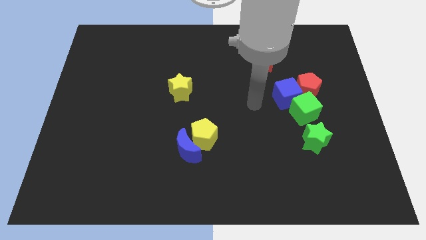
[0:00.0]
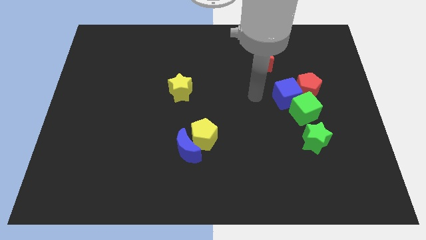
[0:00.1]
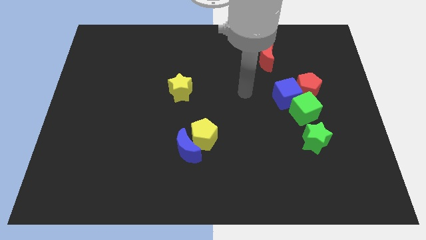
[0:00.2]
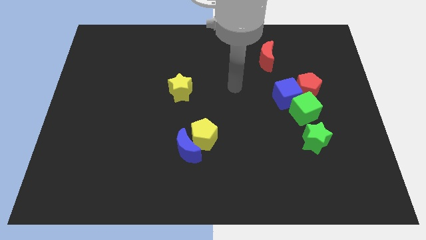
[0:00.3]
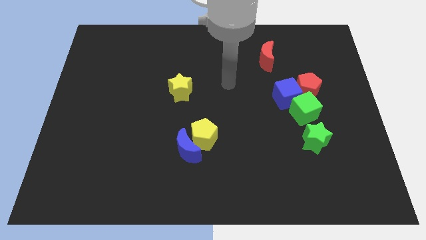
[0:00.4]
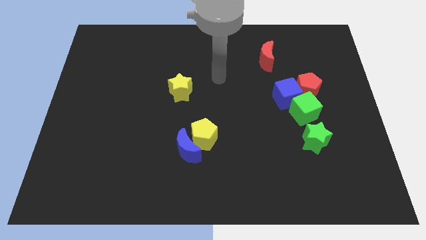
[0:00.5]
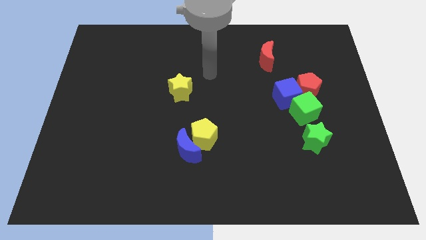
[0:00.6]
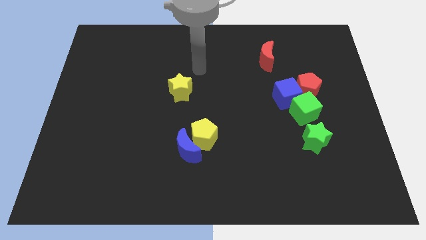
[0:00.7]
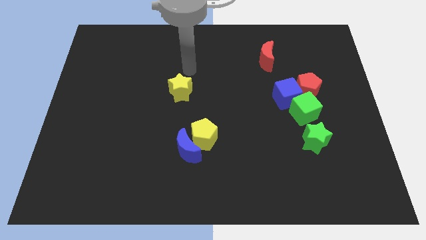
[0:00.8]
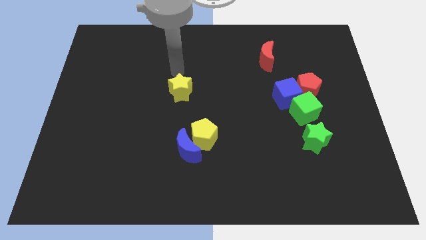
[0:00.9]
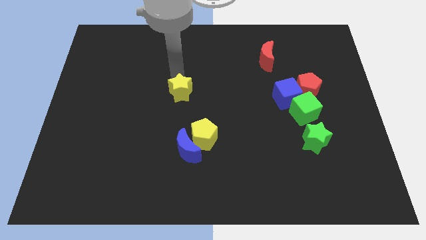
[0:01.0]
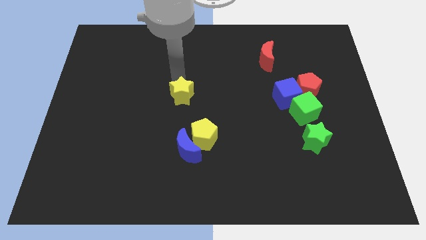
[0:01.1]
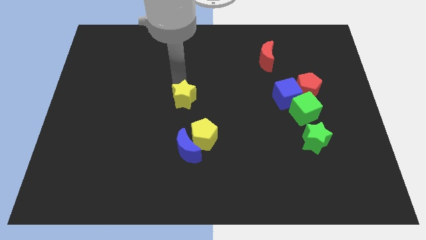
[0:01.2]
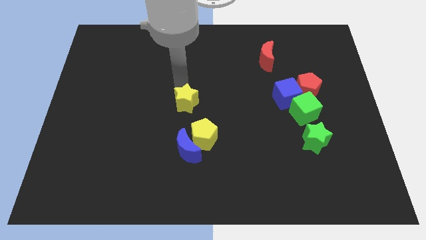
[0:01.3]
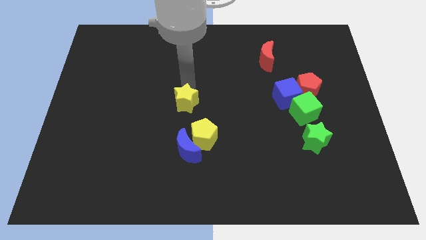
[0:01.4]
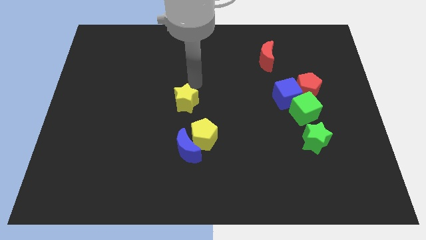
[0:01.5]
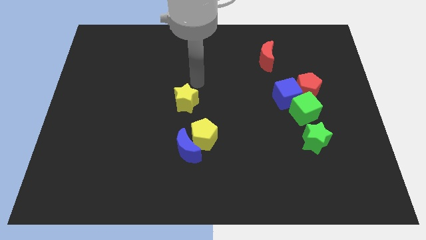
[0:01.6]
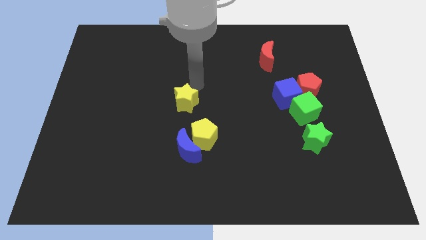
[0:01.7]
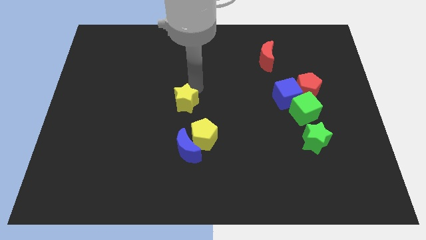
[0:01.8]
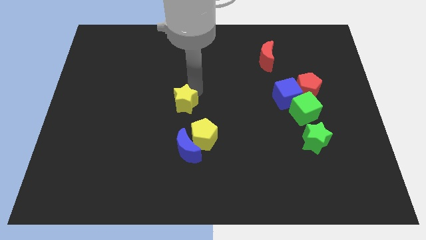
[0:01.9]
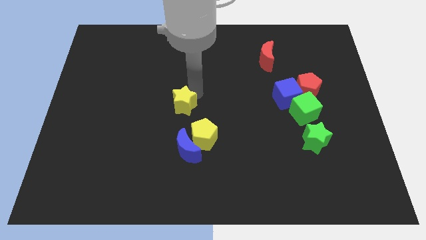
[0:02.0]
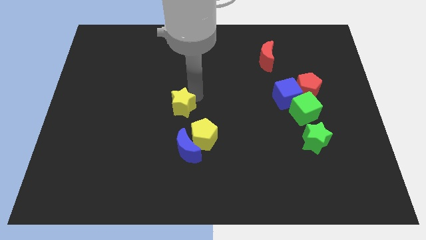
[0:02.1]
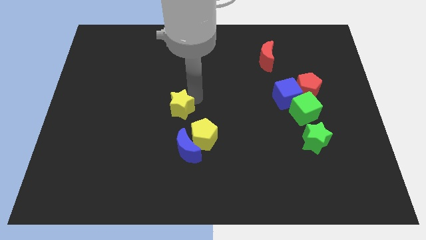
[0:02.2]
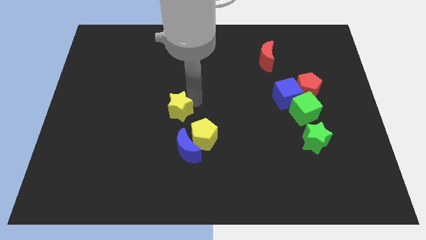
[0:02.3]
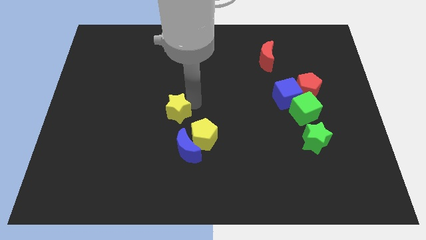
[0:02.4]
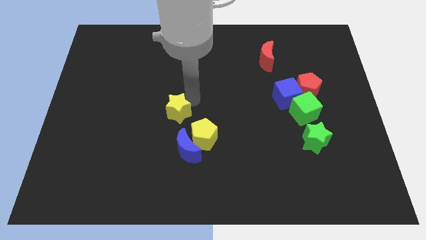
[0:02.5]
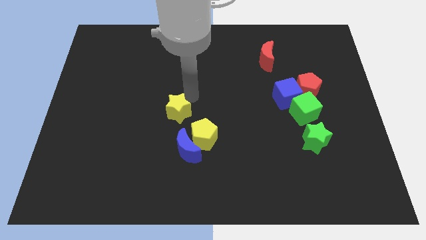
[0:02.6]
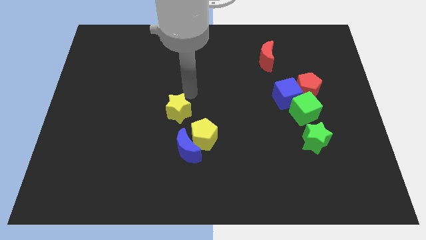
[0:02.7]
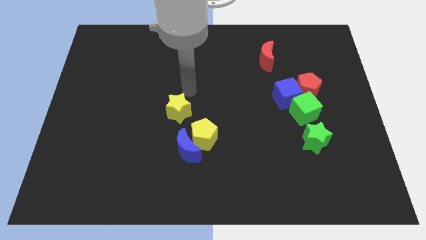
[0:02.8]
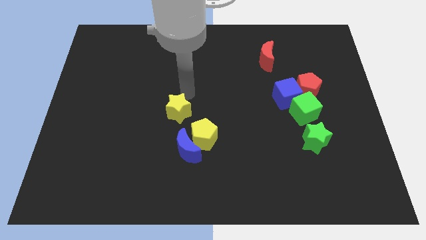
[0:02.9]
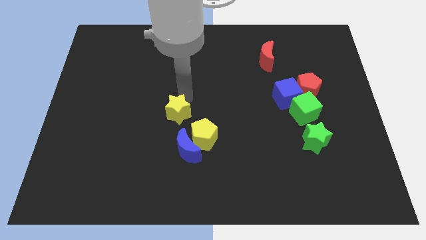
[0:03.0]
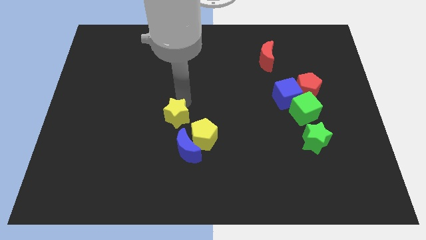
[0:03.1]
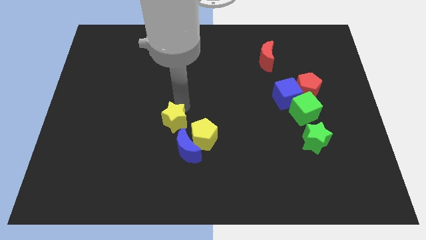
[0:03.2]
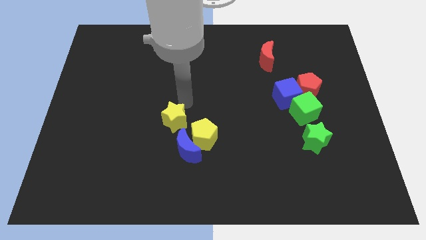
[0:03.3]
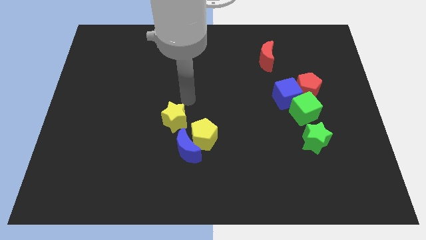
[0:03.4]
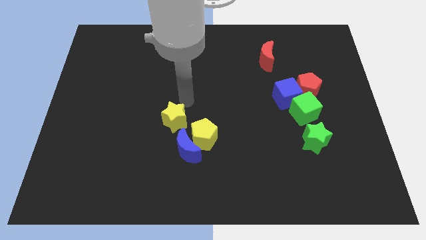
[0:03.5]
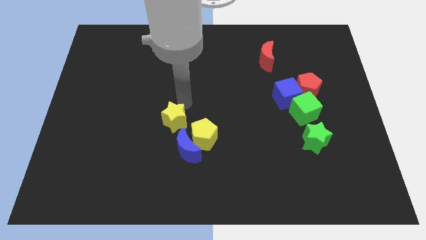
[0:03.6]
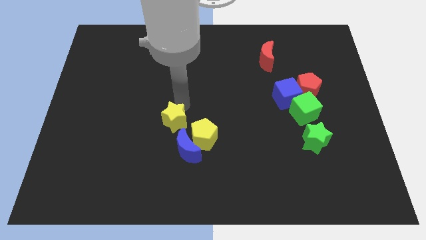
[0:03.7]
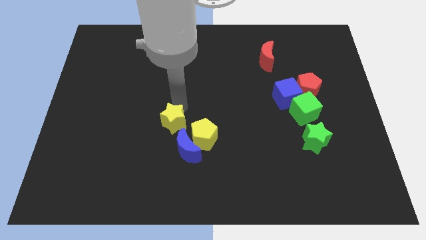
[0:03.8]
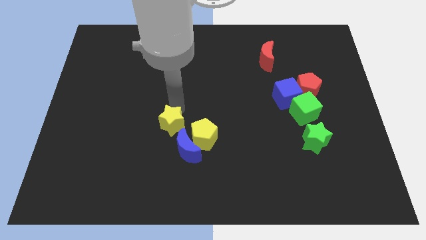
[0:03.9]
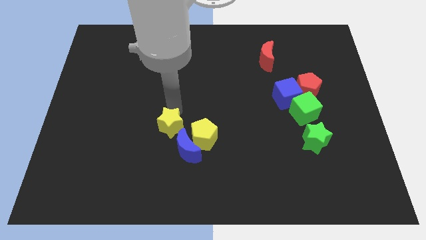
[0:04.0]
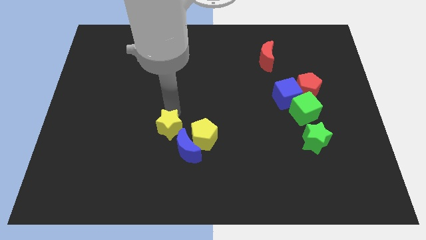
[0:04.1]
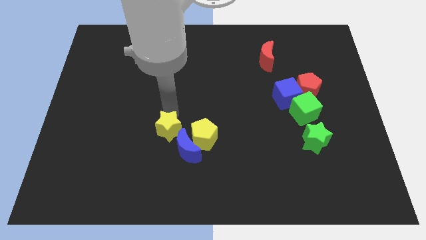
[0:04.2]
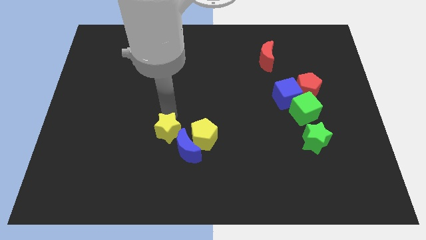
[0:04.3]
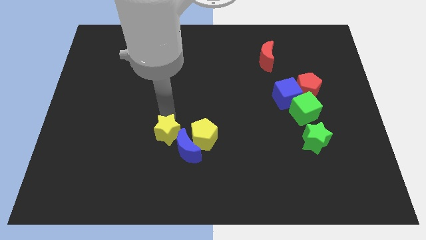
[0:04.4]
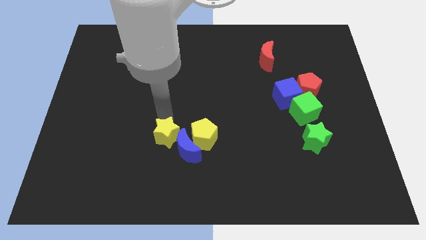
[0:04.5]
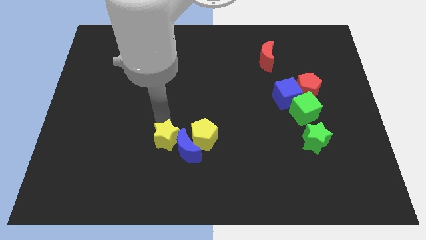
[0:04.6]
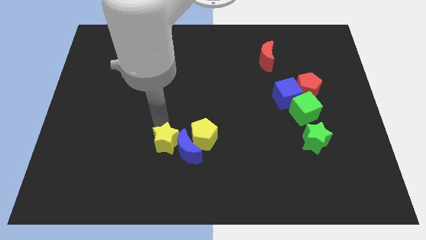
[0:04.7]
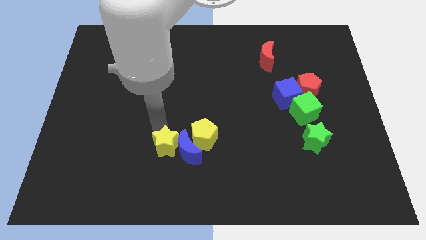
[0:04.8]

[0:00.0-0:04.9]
move the yellow star to the bottom left of the blue moon

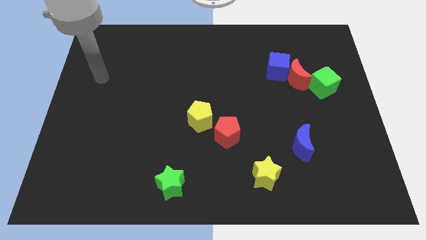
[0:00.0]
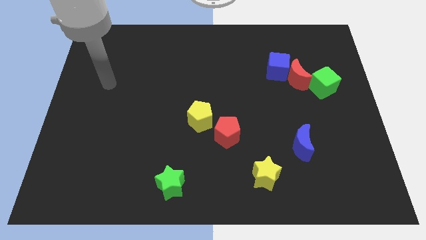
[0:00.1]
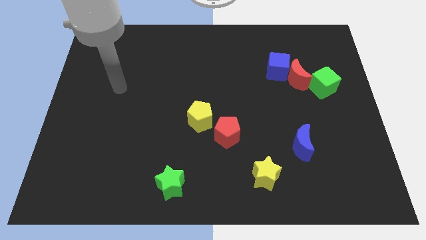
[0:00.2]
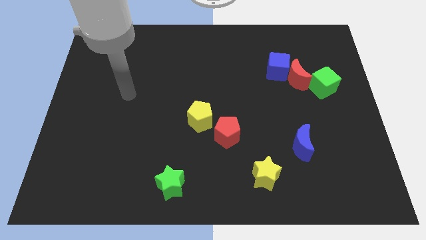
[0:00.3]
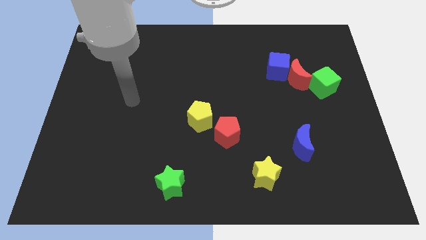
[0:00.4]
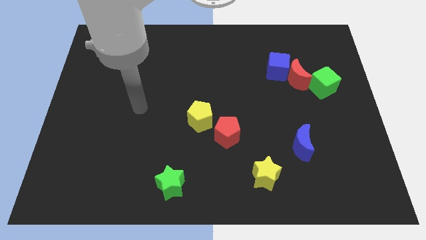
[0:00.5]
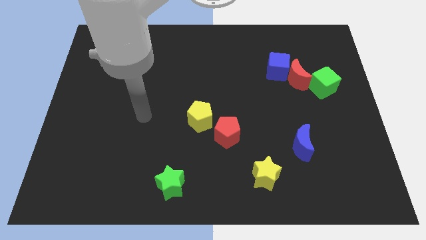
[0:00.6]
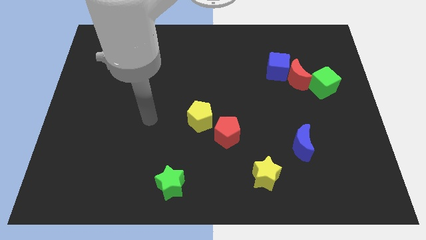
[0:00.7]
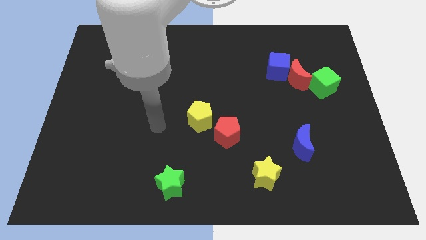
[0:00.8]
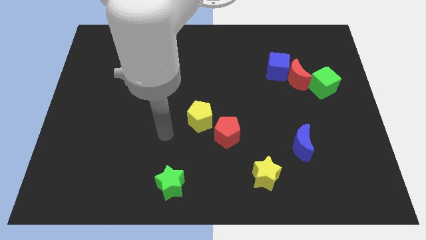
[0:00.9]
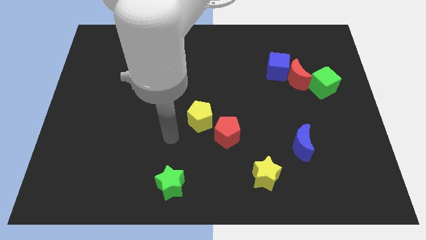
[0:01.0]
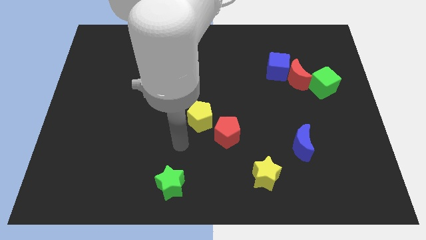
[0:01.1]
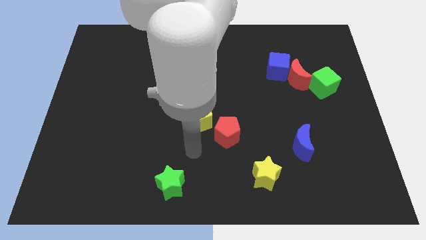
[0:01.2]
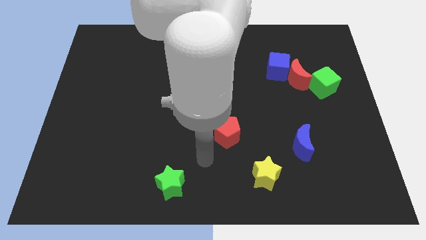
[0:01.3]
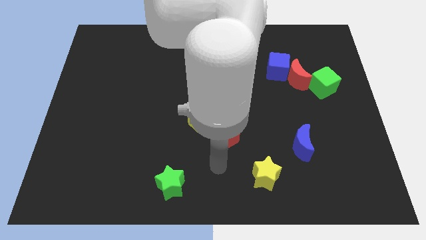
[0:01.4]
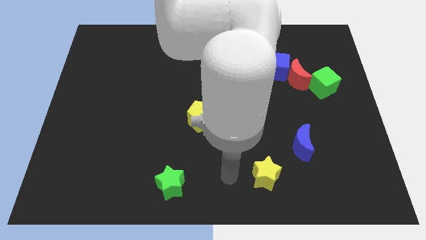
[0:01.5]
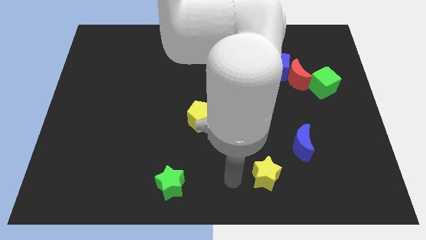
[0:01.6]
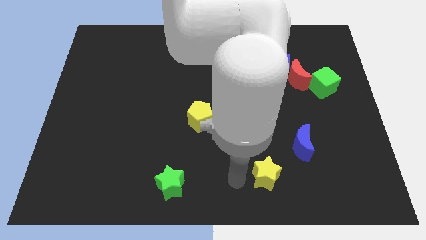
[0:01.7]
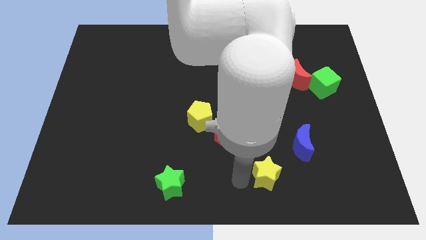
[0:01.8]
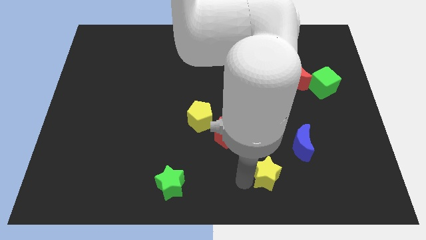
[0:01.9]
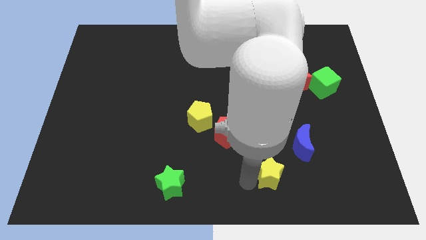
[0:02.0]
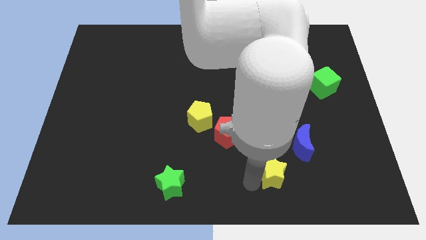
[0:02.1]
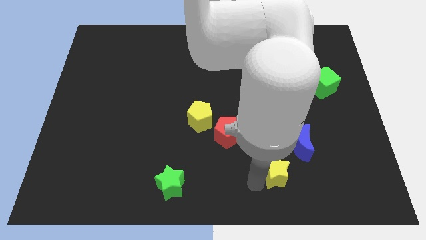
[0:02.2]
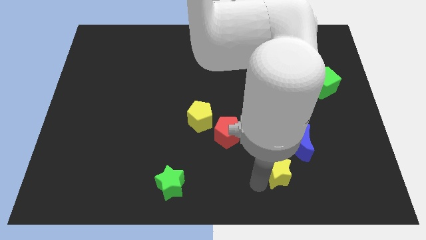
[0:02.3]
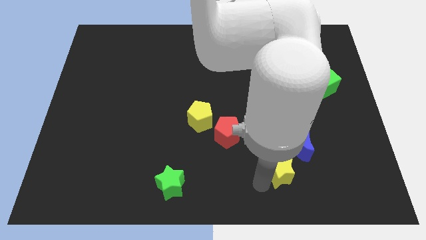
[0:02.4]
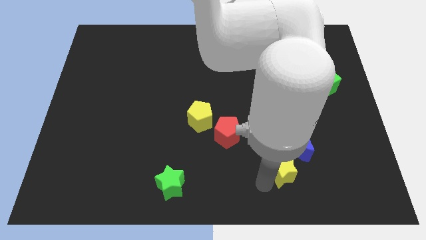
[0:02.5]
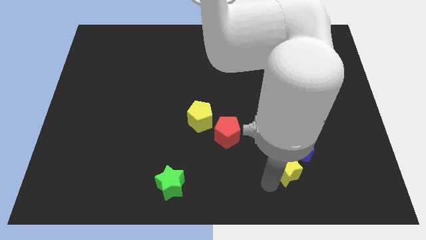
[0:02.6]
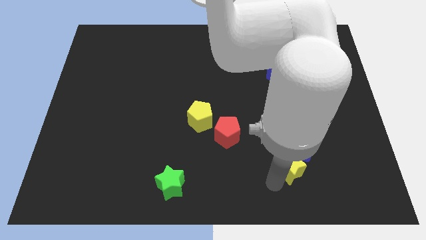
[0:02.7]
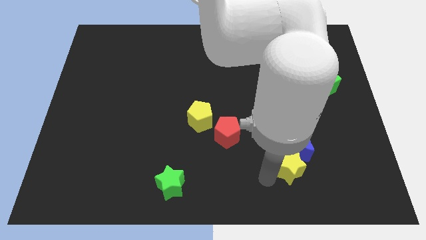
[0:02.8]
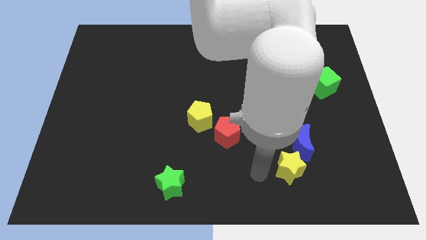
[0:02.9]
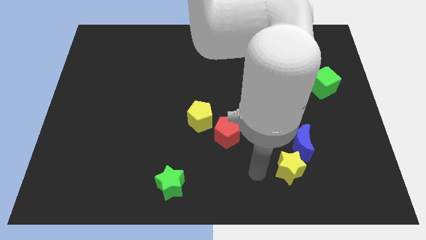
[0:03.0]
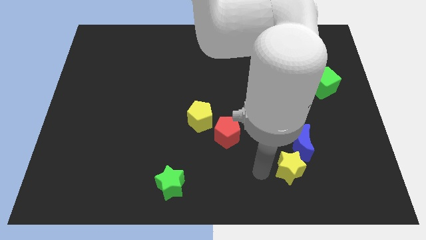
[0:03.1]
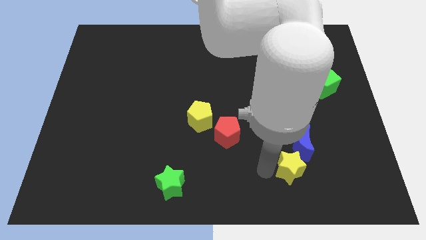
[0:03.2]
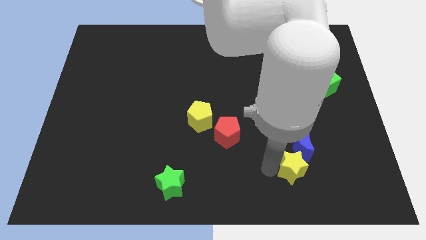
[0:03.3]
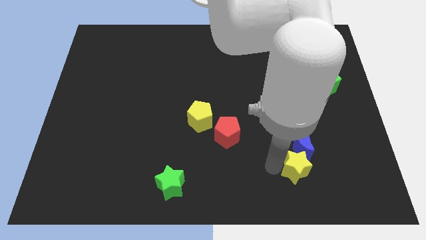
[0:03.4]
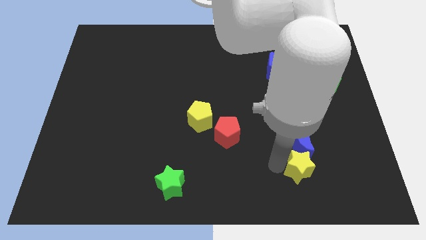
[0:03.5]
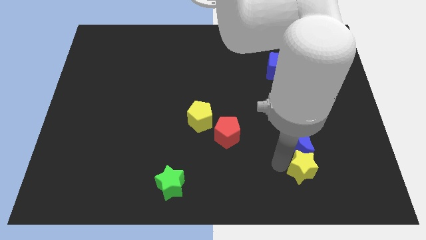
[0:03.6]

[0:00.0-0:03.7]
put the yellow star diagonally down and to the right of the blue moon
